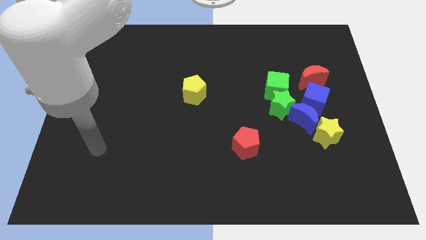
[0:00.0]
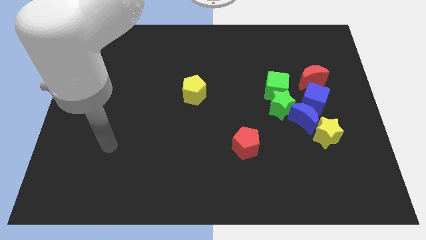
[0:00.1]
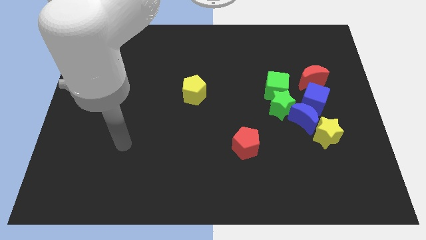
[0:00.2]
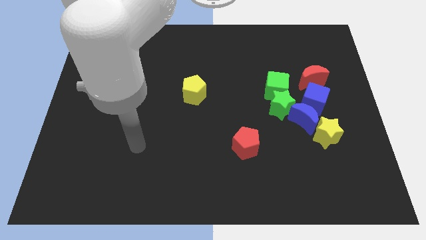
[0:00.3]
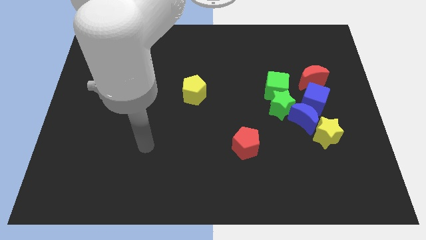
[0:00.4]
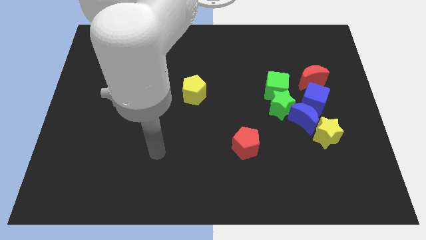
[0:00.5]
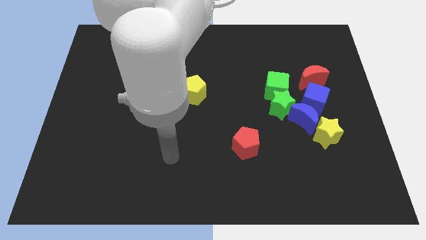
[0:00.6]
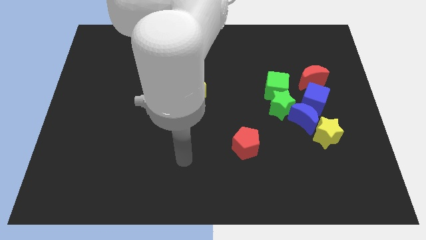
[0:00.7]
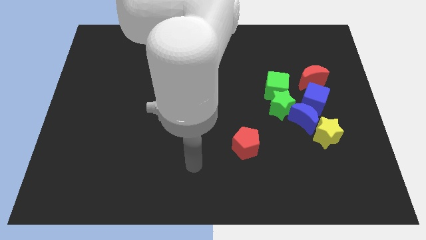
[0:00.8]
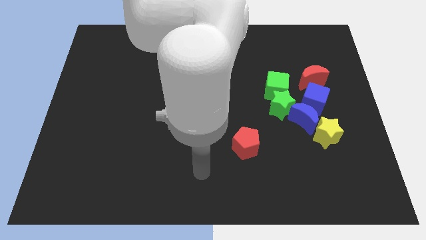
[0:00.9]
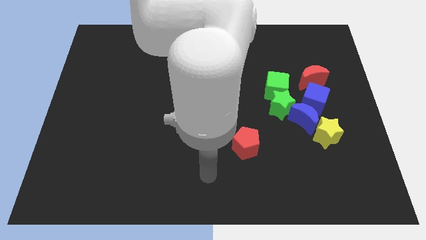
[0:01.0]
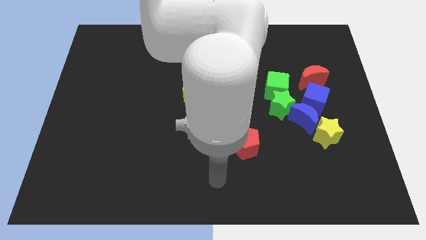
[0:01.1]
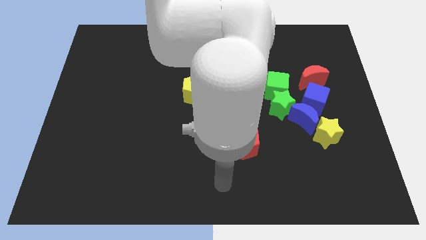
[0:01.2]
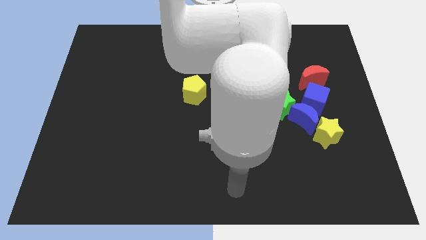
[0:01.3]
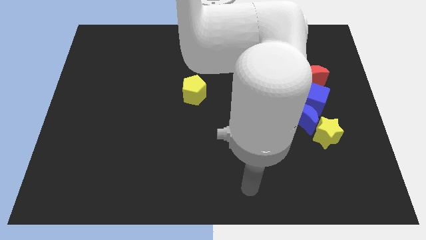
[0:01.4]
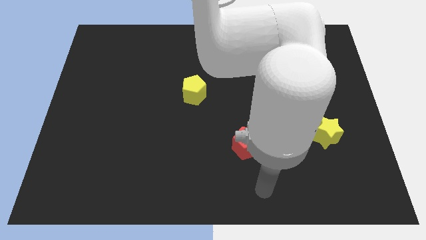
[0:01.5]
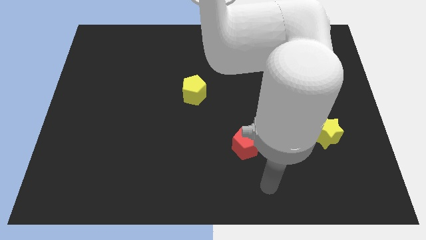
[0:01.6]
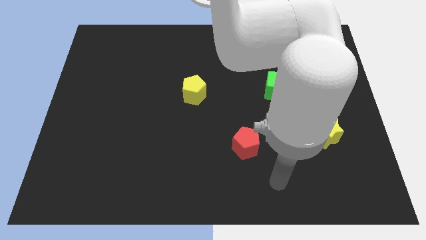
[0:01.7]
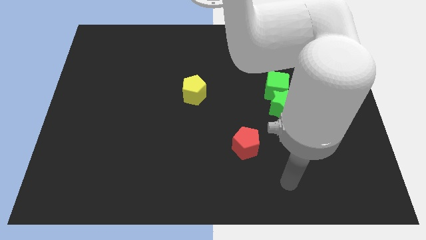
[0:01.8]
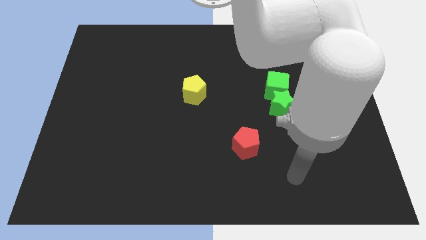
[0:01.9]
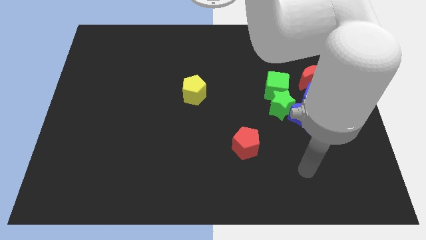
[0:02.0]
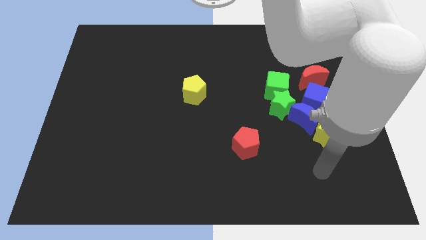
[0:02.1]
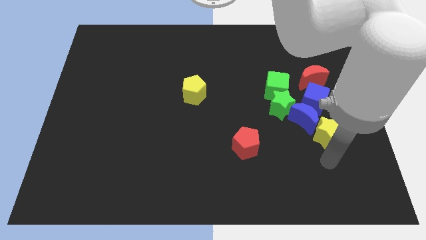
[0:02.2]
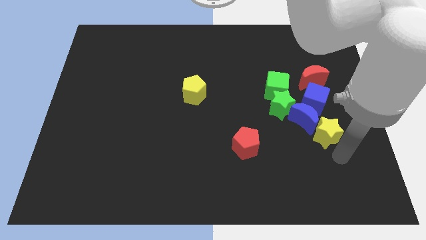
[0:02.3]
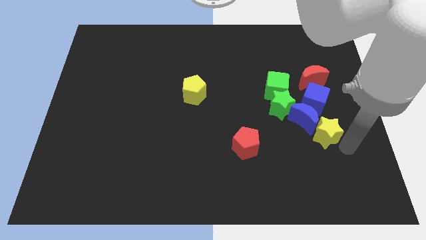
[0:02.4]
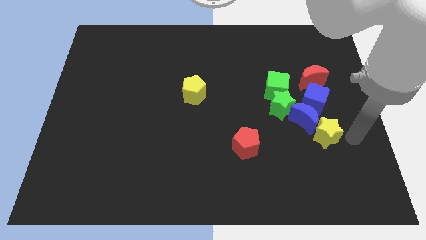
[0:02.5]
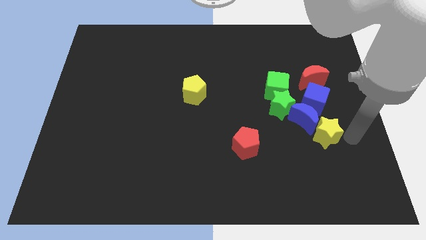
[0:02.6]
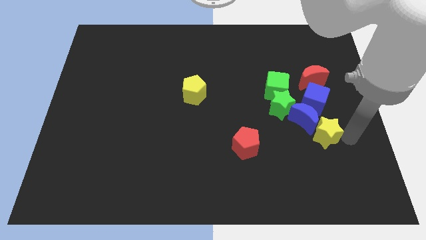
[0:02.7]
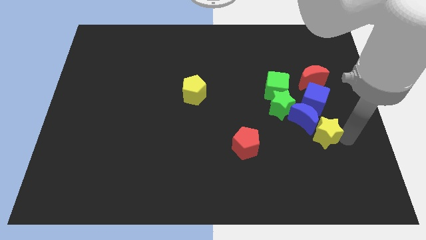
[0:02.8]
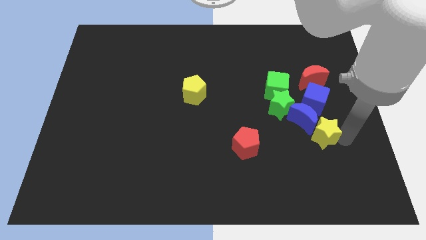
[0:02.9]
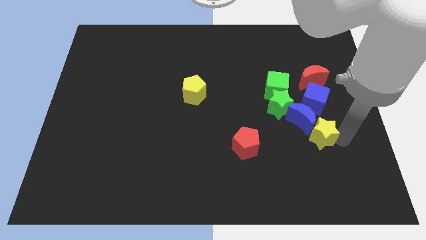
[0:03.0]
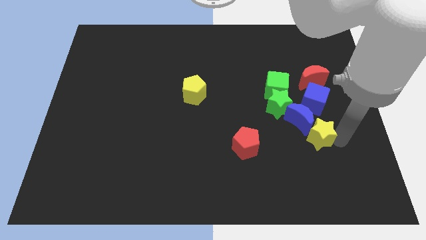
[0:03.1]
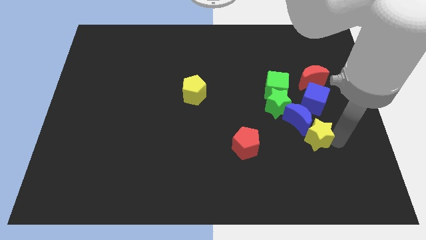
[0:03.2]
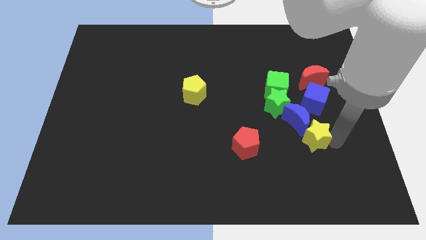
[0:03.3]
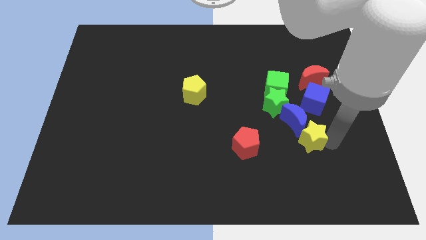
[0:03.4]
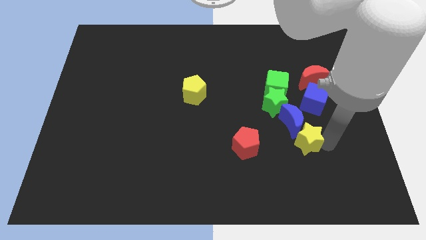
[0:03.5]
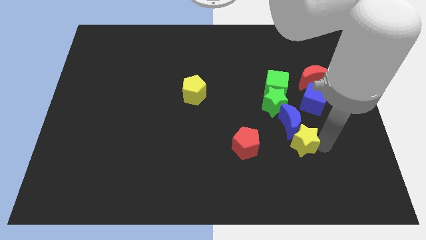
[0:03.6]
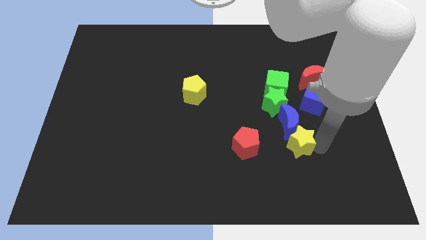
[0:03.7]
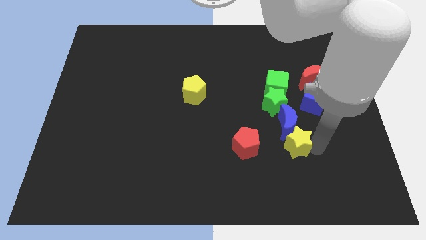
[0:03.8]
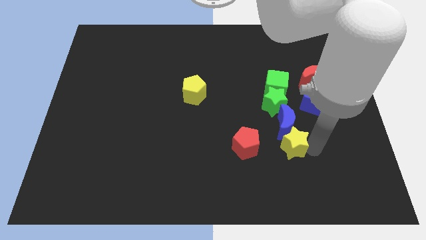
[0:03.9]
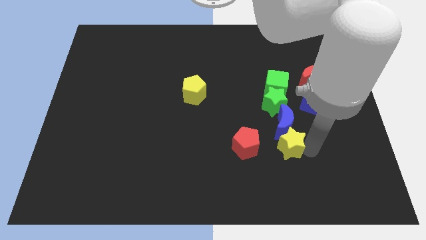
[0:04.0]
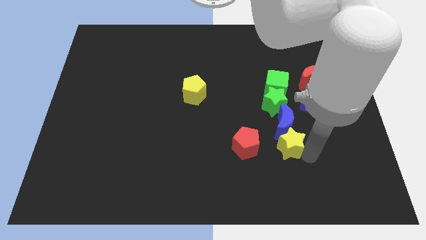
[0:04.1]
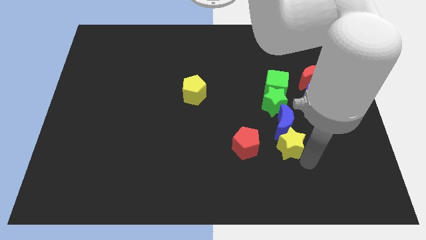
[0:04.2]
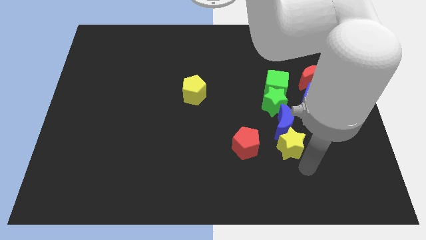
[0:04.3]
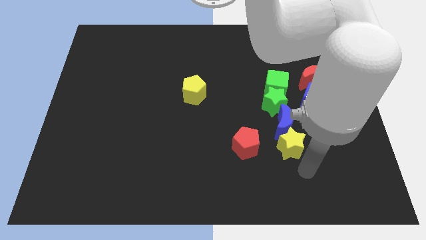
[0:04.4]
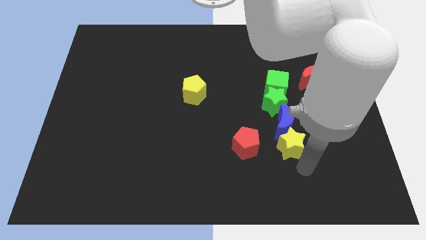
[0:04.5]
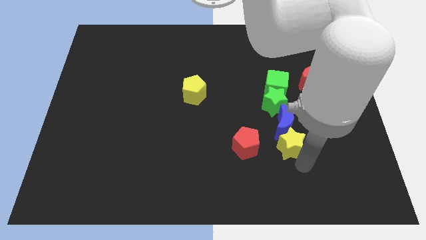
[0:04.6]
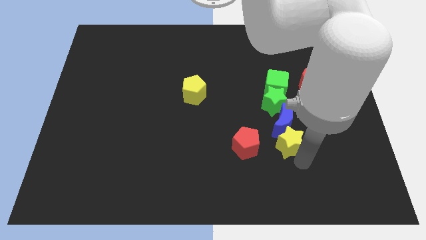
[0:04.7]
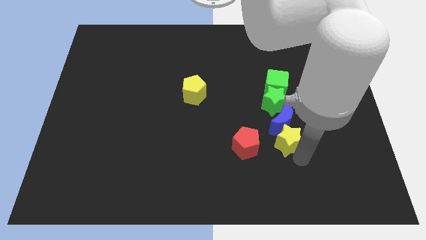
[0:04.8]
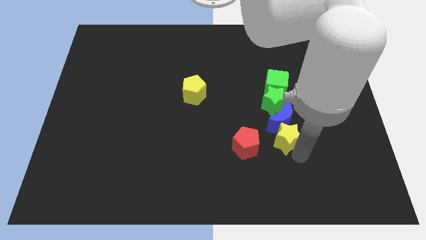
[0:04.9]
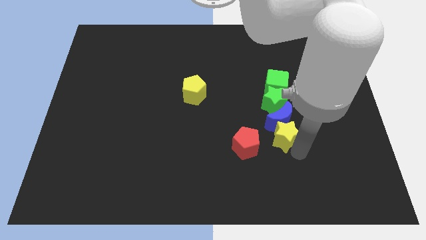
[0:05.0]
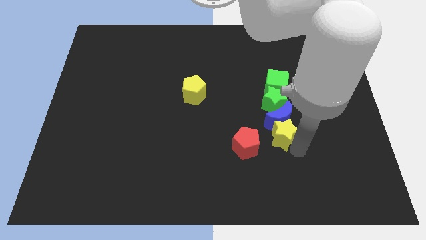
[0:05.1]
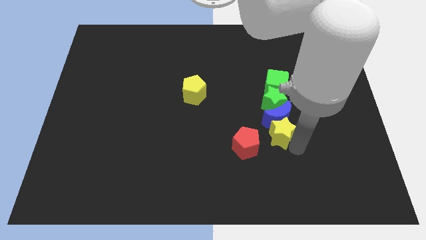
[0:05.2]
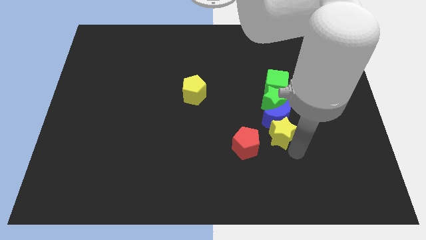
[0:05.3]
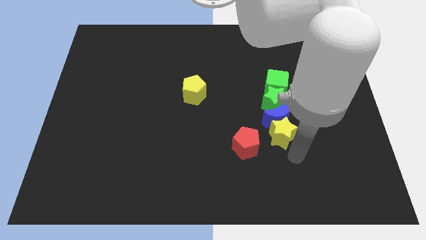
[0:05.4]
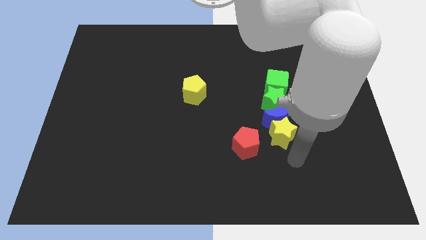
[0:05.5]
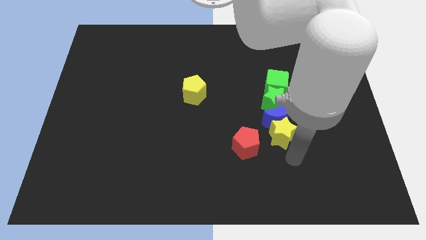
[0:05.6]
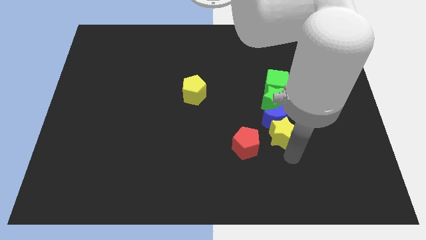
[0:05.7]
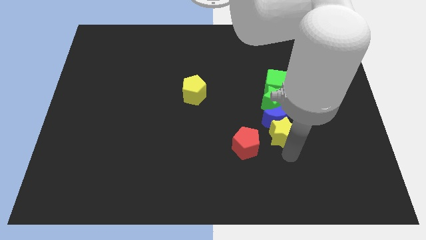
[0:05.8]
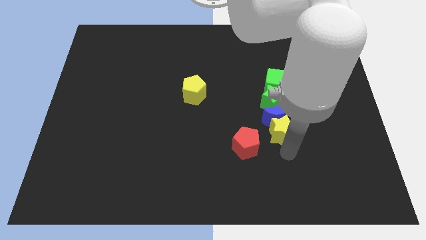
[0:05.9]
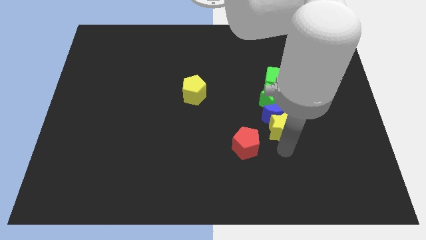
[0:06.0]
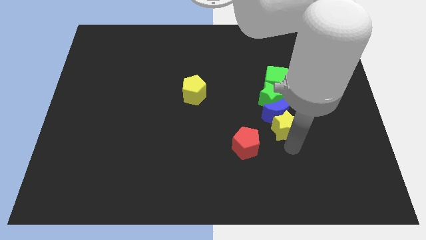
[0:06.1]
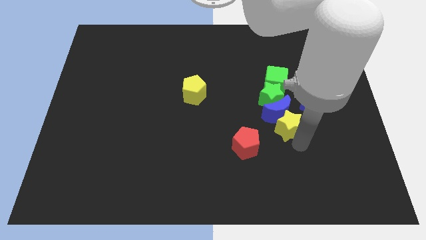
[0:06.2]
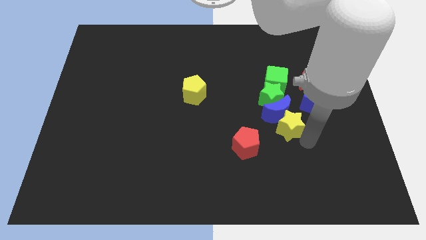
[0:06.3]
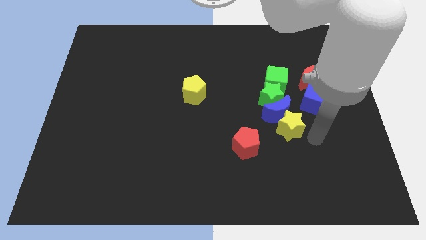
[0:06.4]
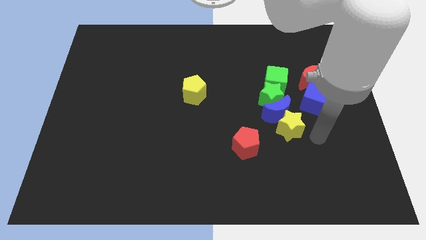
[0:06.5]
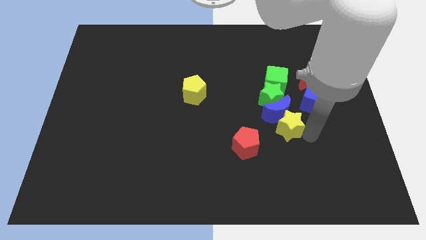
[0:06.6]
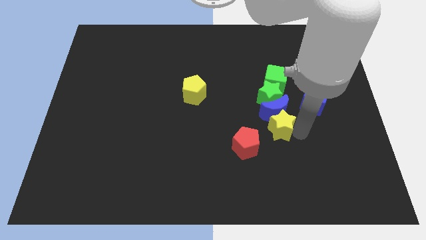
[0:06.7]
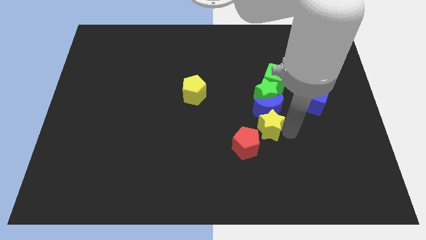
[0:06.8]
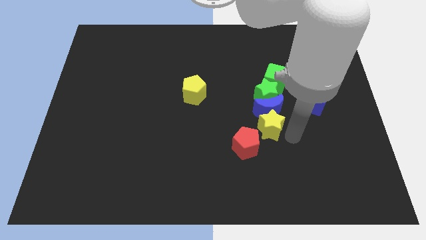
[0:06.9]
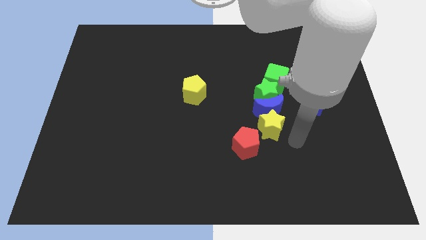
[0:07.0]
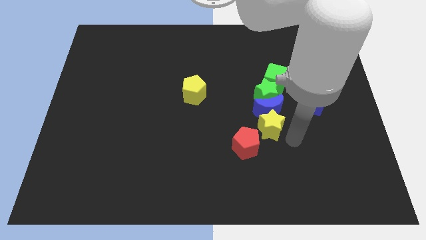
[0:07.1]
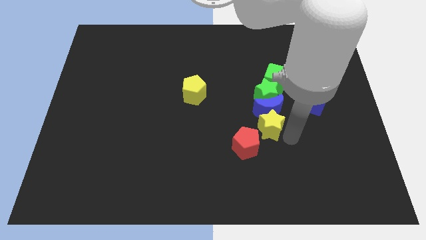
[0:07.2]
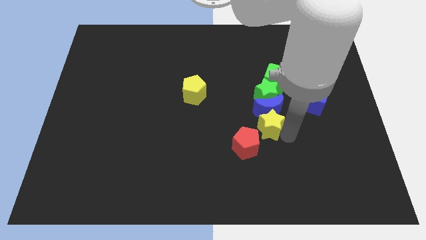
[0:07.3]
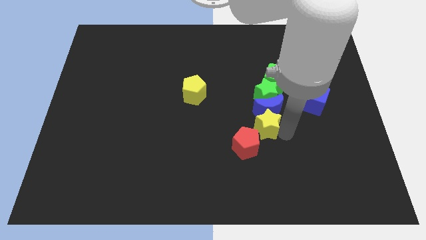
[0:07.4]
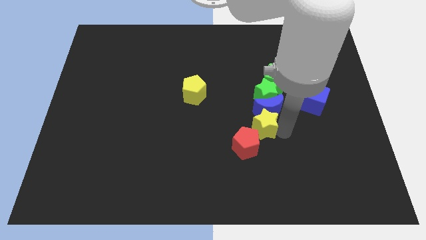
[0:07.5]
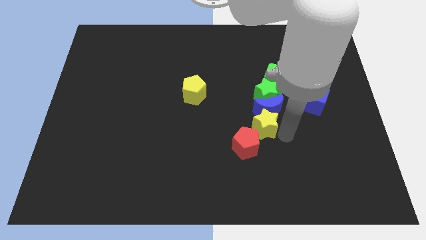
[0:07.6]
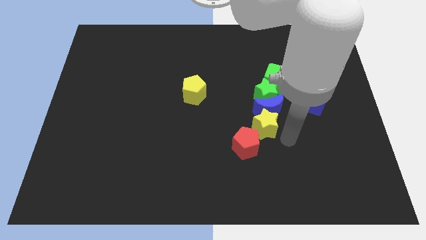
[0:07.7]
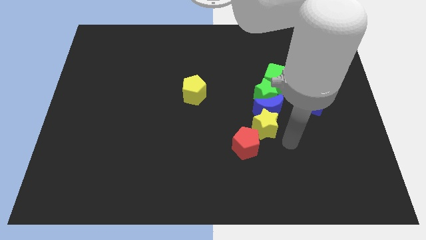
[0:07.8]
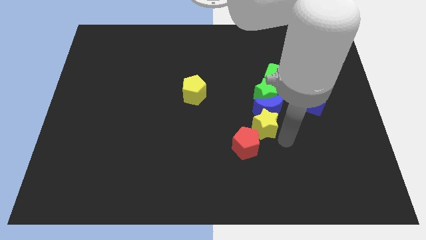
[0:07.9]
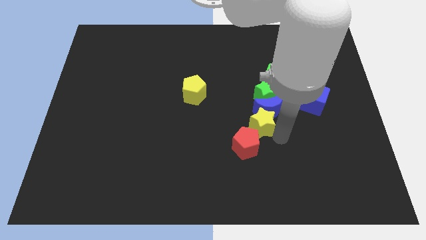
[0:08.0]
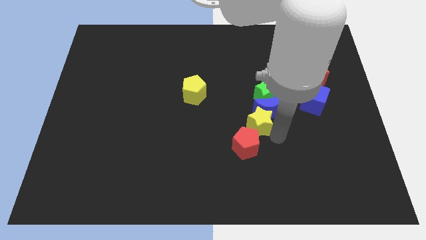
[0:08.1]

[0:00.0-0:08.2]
put the yellow star to the center
